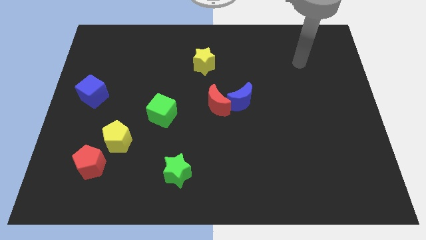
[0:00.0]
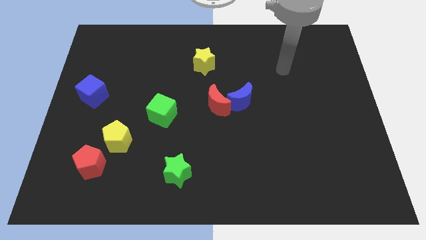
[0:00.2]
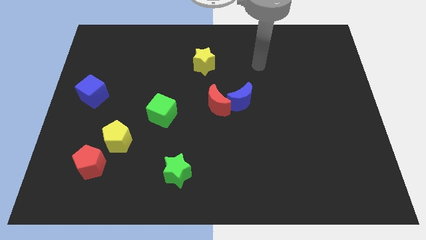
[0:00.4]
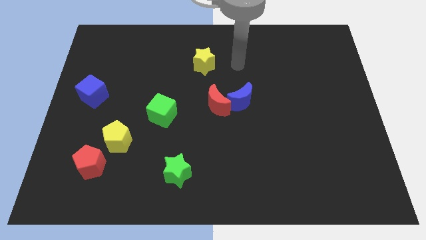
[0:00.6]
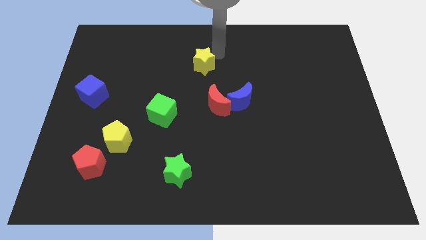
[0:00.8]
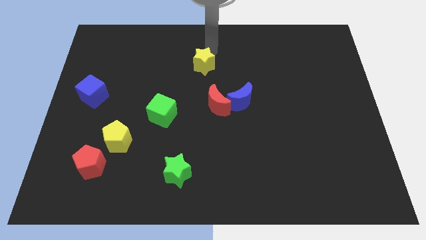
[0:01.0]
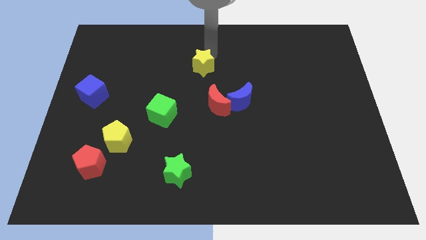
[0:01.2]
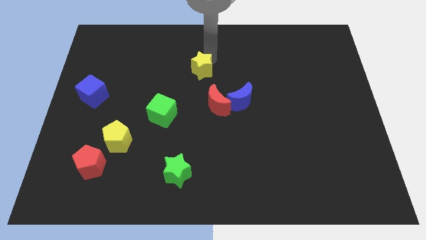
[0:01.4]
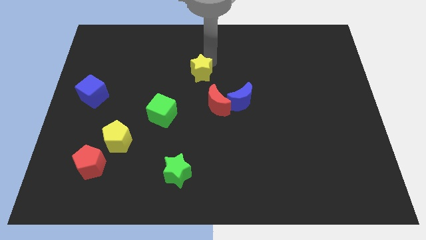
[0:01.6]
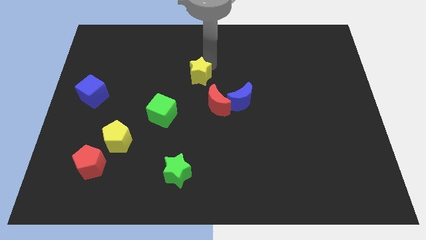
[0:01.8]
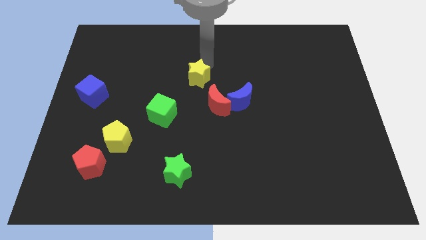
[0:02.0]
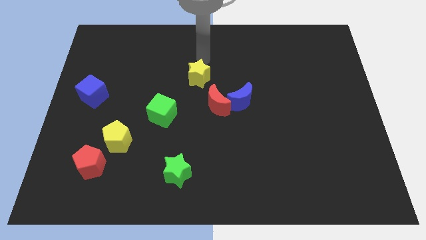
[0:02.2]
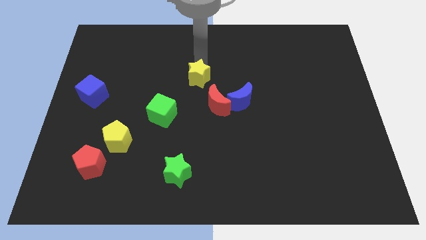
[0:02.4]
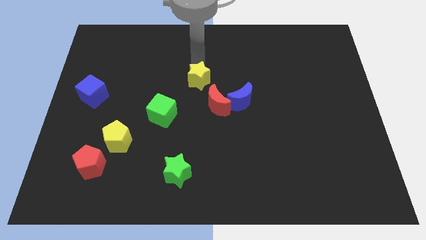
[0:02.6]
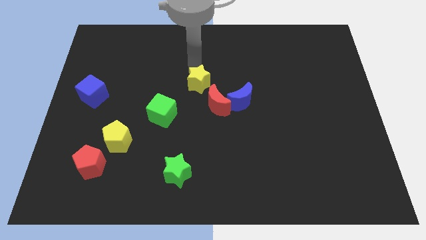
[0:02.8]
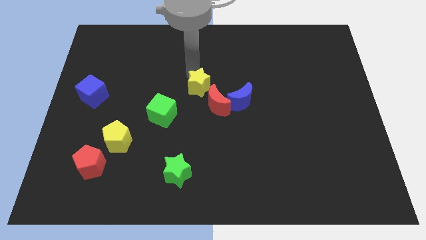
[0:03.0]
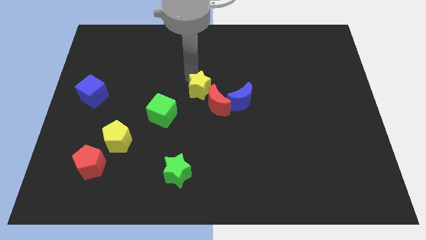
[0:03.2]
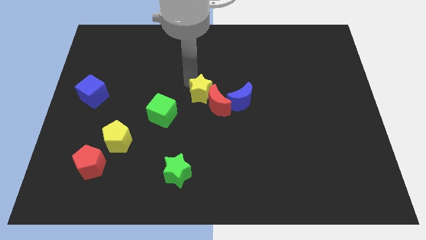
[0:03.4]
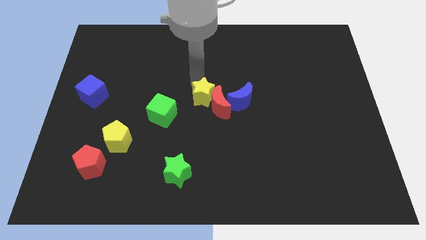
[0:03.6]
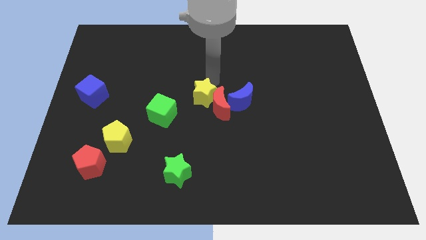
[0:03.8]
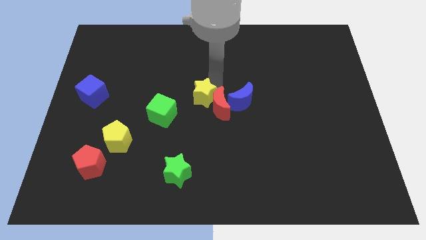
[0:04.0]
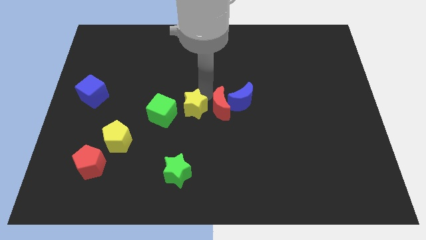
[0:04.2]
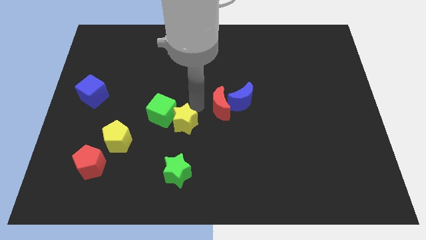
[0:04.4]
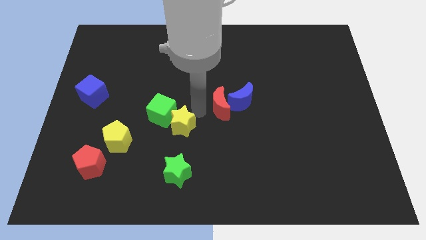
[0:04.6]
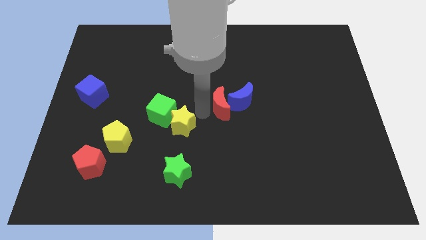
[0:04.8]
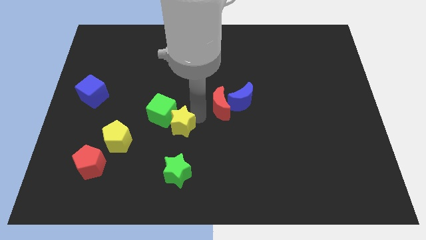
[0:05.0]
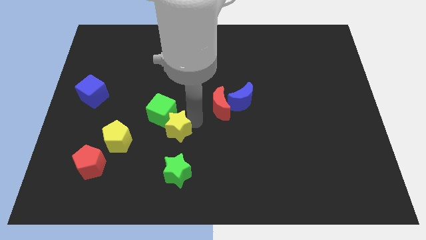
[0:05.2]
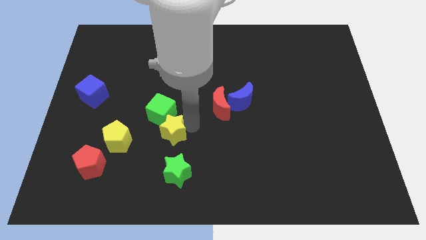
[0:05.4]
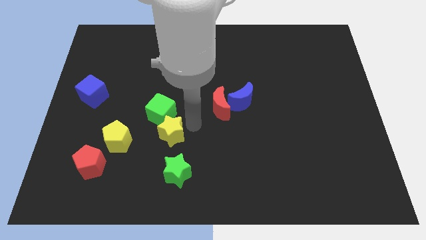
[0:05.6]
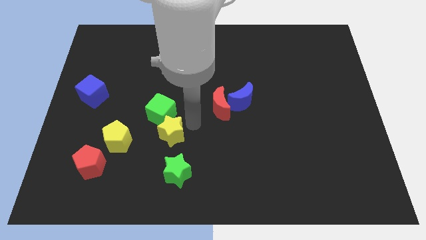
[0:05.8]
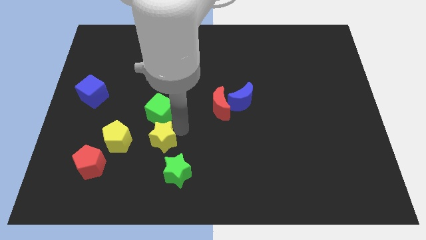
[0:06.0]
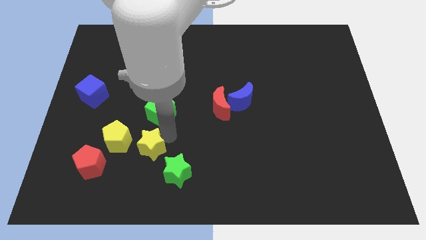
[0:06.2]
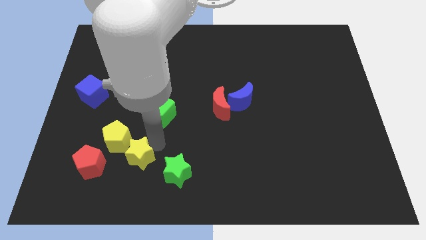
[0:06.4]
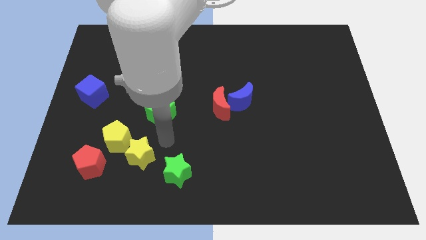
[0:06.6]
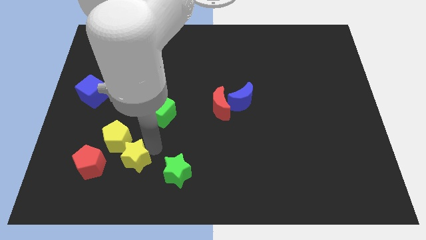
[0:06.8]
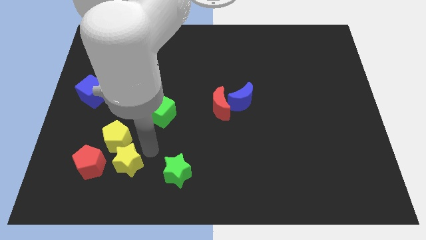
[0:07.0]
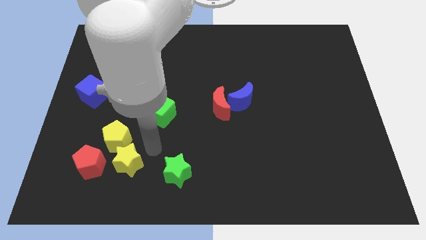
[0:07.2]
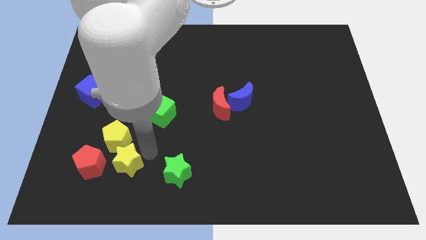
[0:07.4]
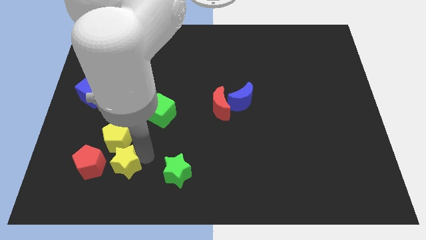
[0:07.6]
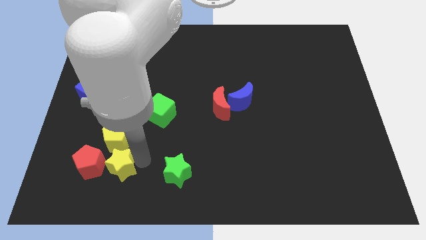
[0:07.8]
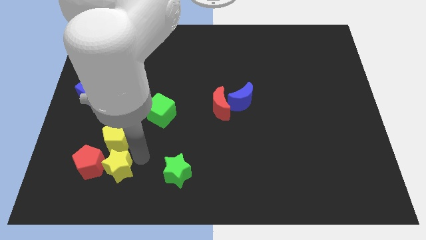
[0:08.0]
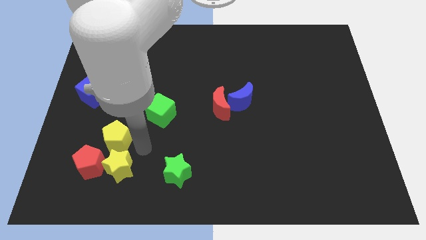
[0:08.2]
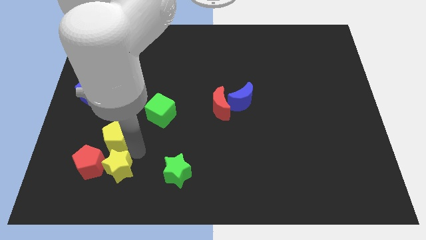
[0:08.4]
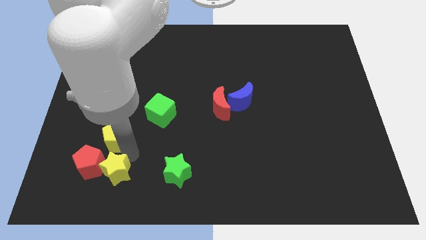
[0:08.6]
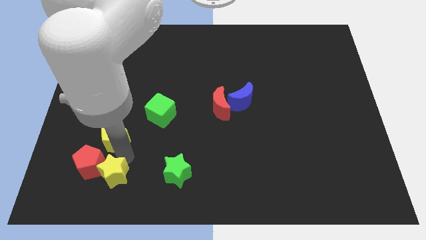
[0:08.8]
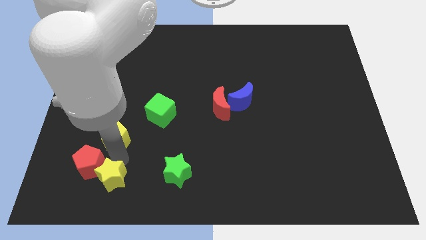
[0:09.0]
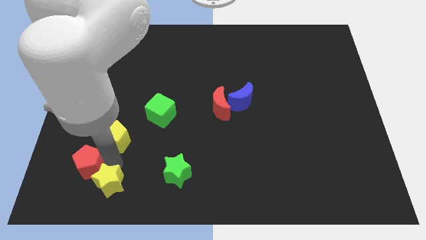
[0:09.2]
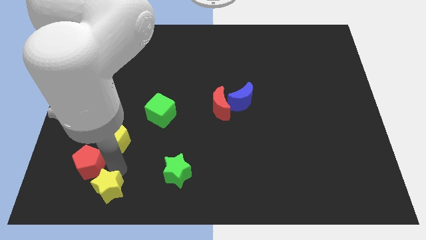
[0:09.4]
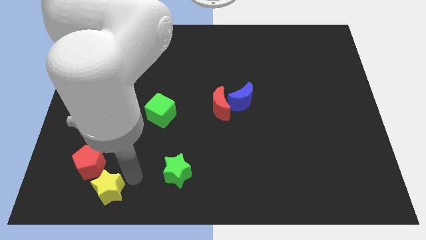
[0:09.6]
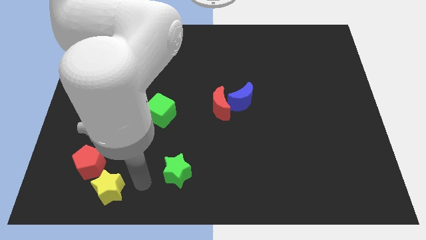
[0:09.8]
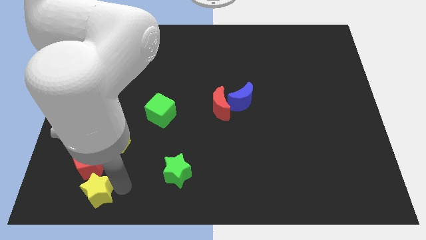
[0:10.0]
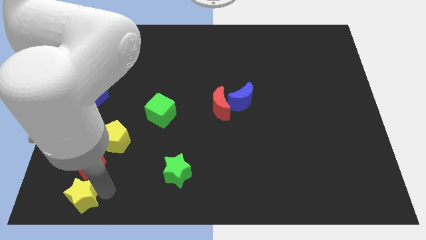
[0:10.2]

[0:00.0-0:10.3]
push the yellow star to the bottom left of the board

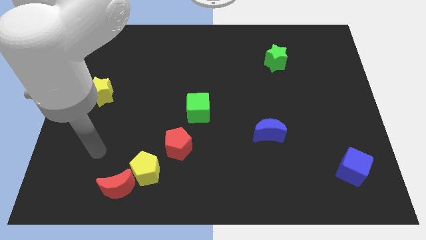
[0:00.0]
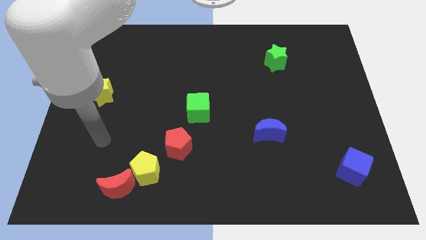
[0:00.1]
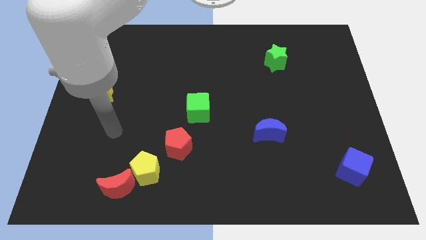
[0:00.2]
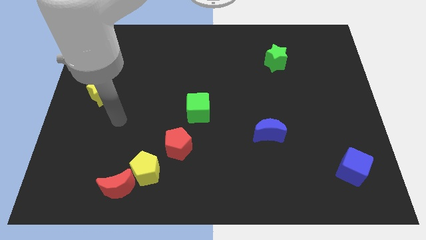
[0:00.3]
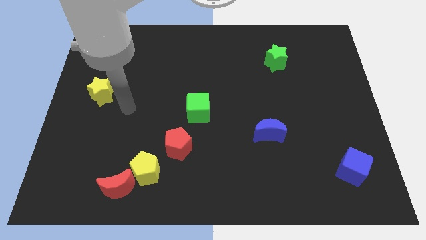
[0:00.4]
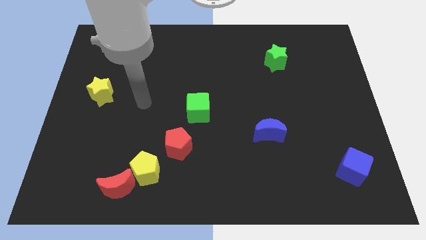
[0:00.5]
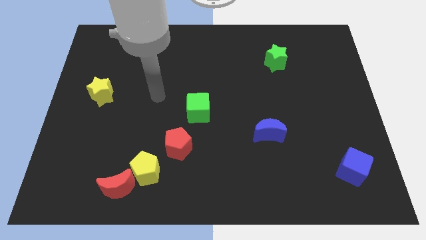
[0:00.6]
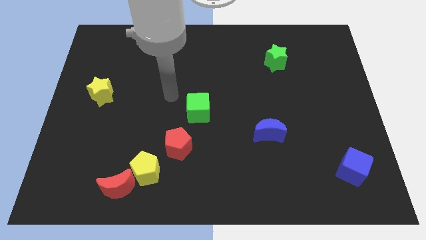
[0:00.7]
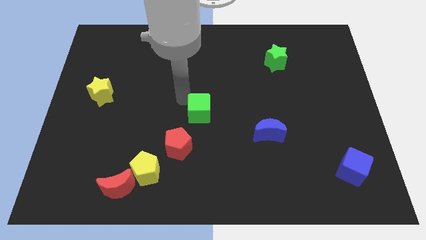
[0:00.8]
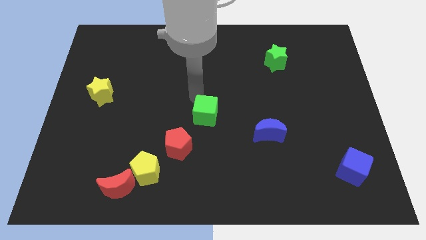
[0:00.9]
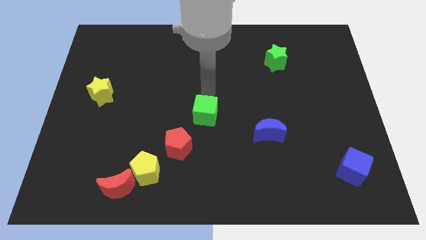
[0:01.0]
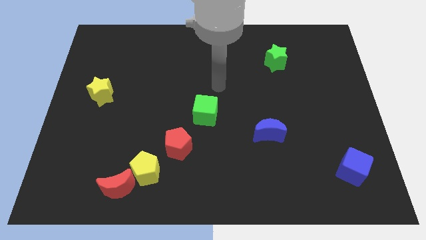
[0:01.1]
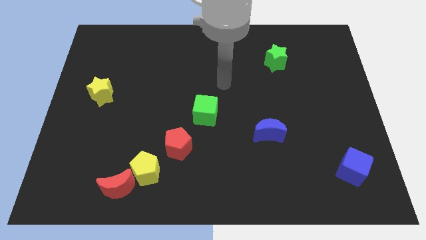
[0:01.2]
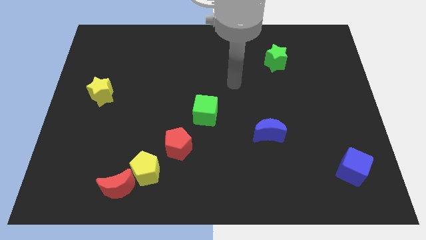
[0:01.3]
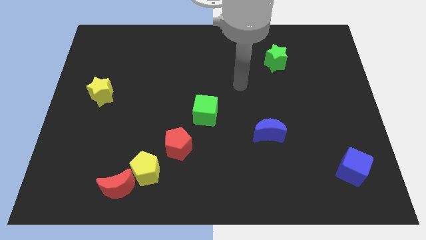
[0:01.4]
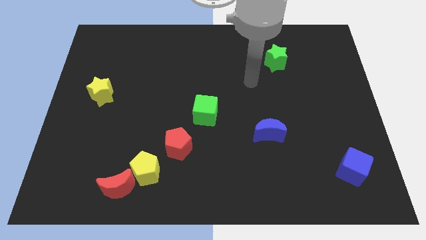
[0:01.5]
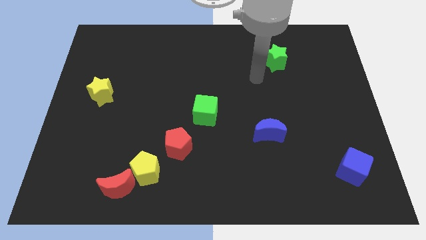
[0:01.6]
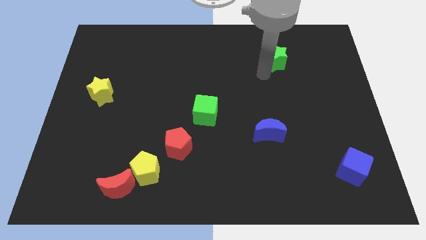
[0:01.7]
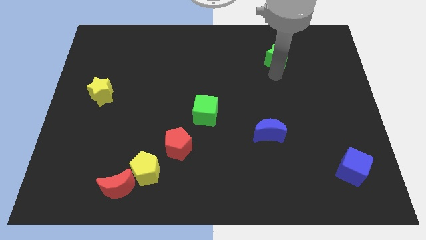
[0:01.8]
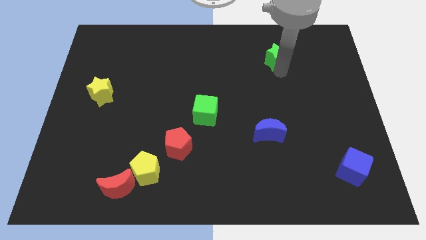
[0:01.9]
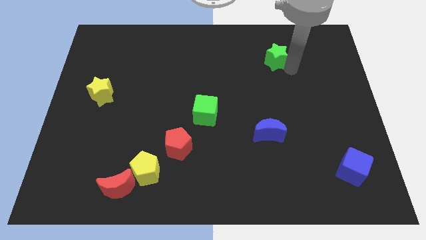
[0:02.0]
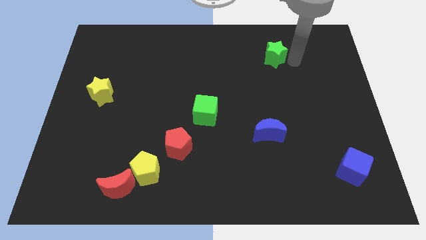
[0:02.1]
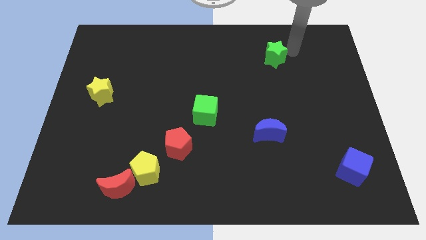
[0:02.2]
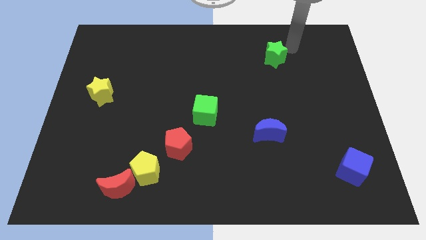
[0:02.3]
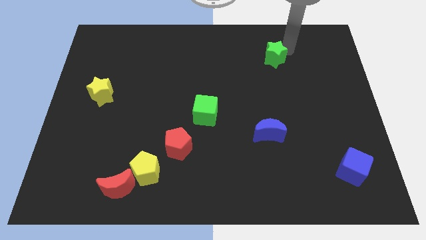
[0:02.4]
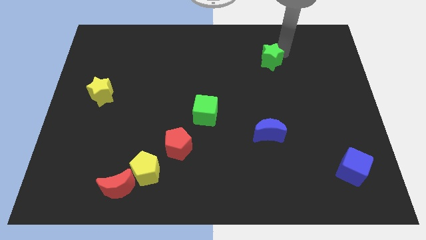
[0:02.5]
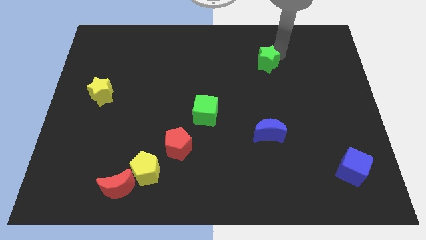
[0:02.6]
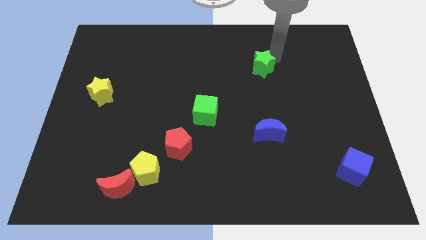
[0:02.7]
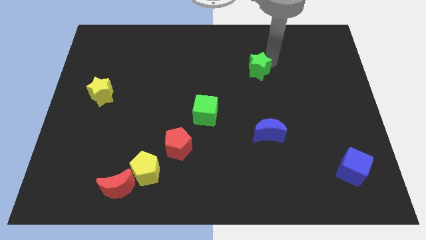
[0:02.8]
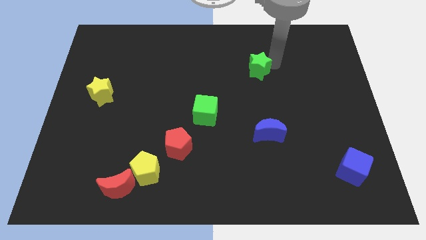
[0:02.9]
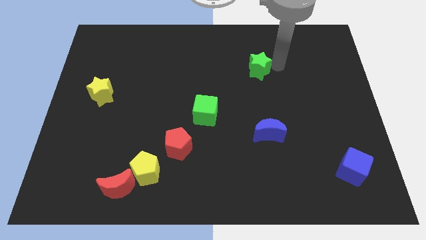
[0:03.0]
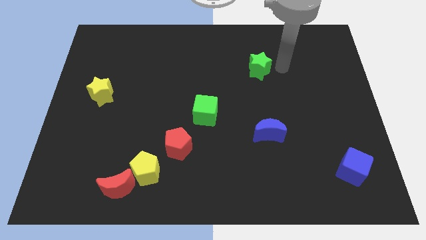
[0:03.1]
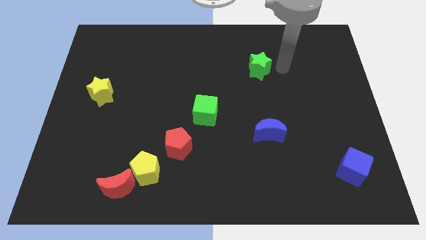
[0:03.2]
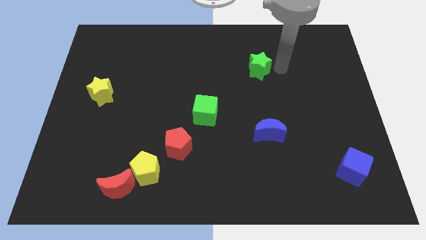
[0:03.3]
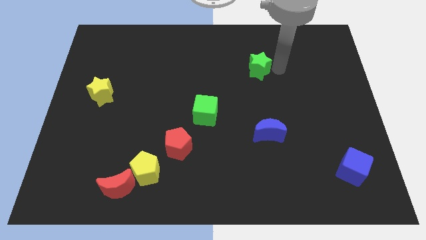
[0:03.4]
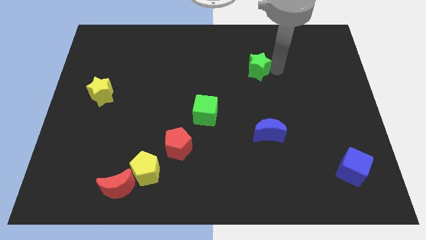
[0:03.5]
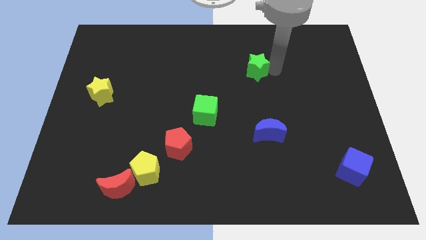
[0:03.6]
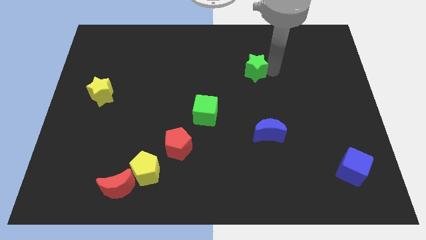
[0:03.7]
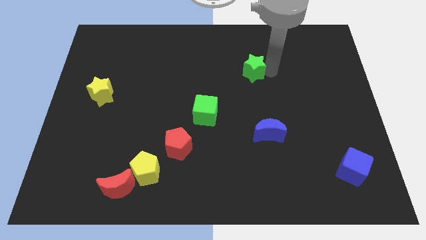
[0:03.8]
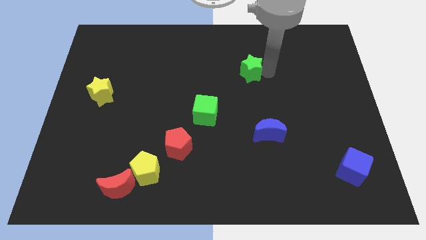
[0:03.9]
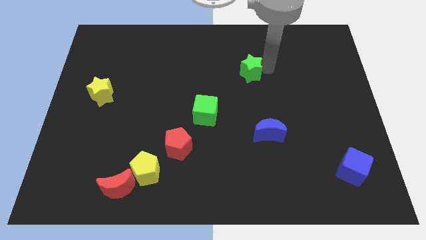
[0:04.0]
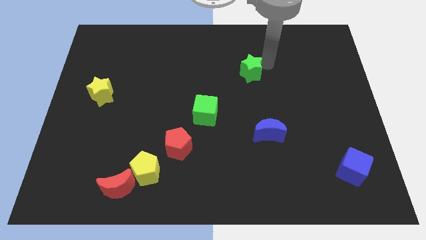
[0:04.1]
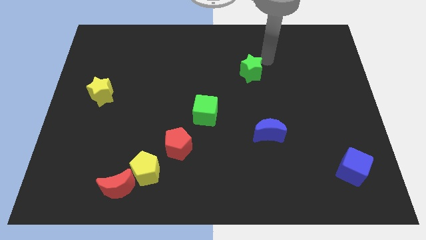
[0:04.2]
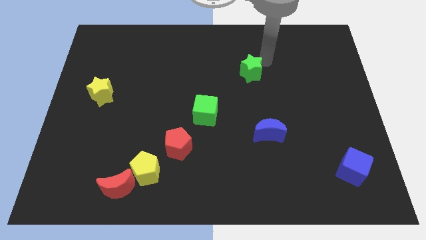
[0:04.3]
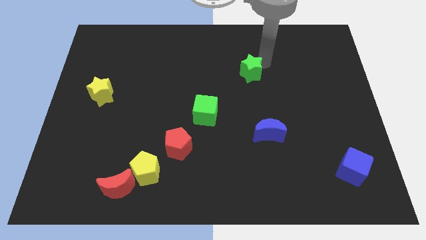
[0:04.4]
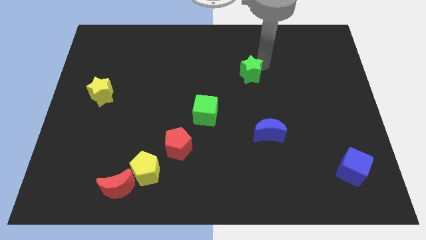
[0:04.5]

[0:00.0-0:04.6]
slide the green star to the center
